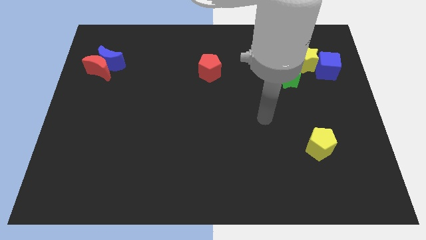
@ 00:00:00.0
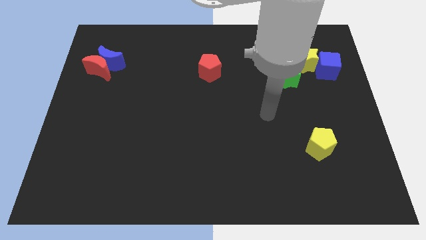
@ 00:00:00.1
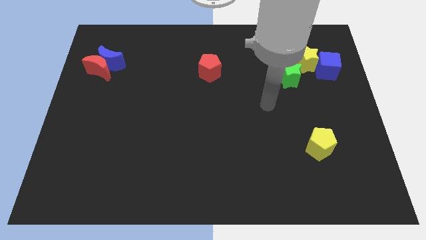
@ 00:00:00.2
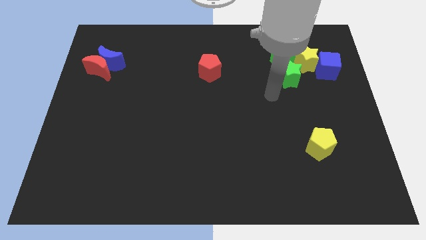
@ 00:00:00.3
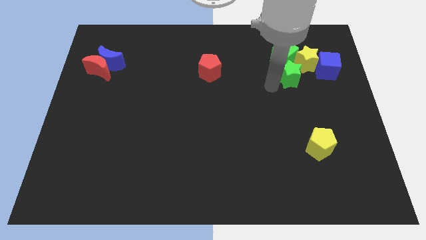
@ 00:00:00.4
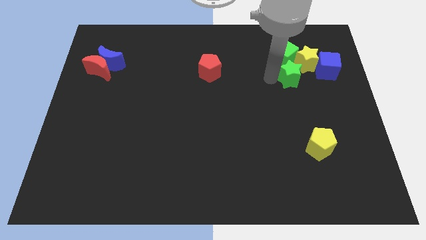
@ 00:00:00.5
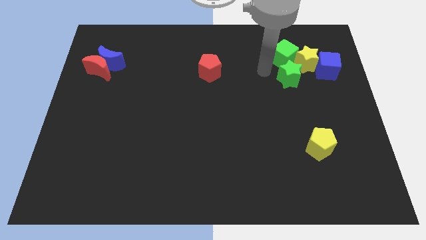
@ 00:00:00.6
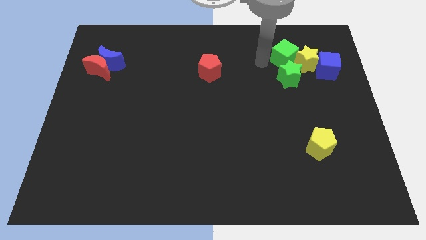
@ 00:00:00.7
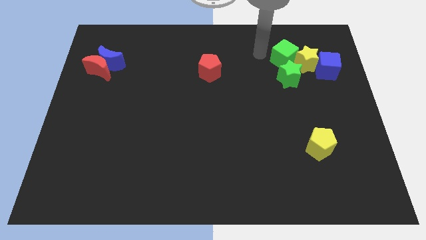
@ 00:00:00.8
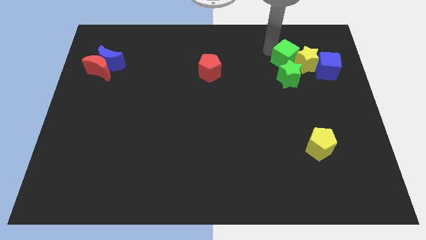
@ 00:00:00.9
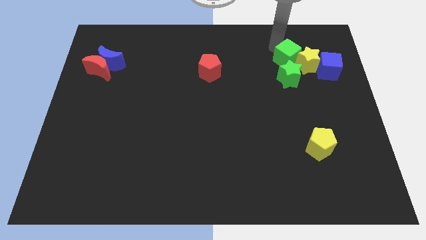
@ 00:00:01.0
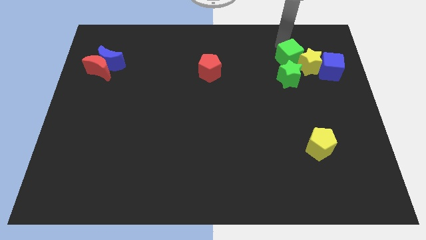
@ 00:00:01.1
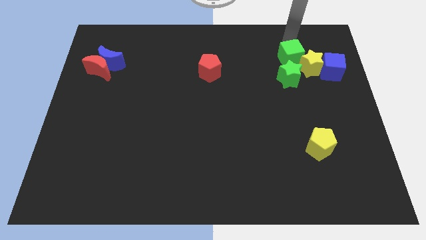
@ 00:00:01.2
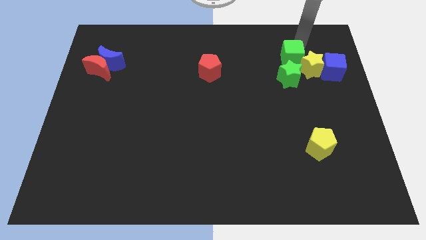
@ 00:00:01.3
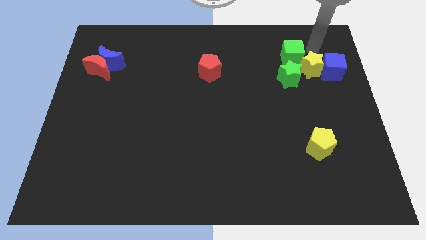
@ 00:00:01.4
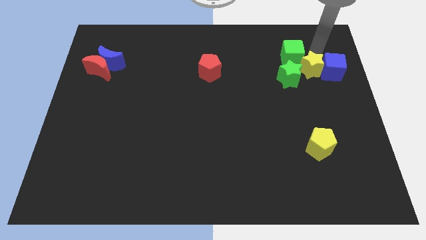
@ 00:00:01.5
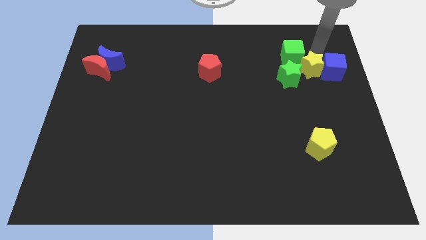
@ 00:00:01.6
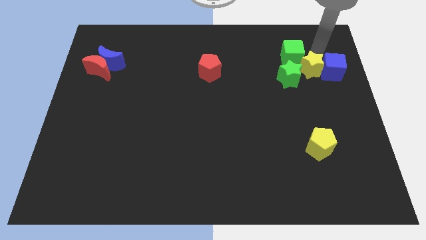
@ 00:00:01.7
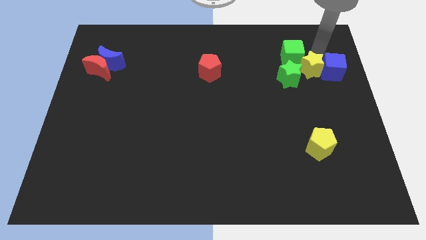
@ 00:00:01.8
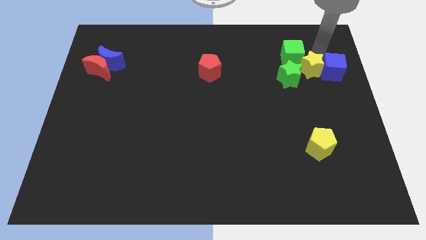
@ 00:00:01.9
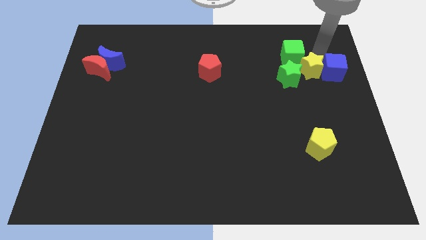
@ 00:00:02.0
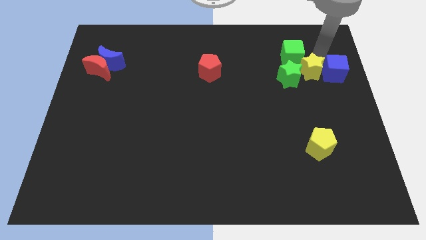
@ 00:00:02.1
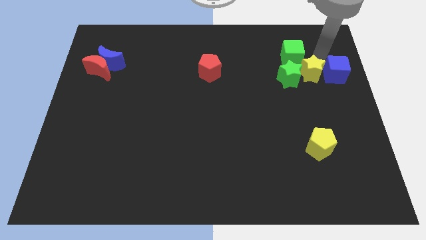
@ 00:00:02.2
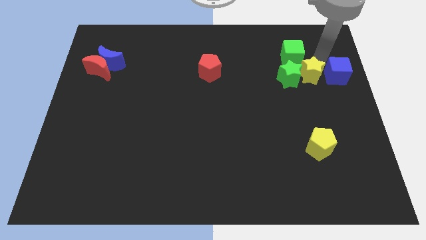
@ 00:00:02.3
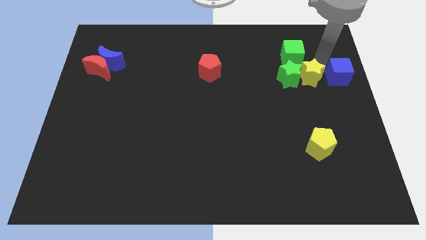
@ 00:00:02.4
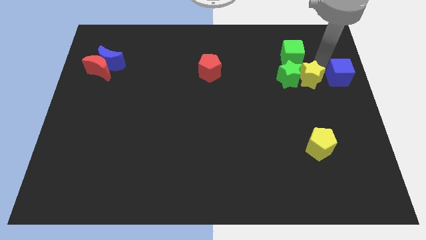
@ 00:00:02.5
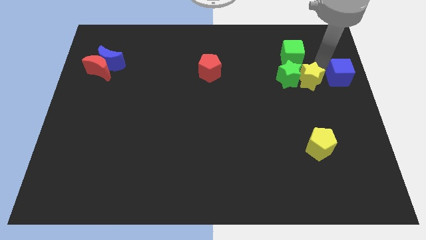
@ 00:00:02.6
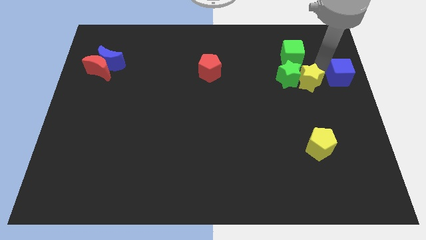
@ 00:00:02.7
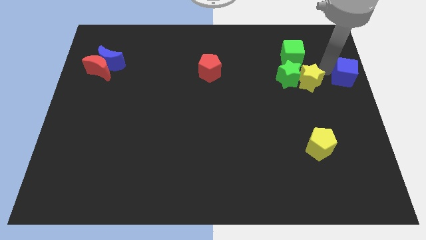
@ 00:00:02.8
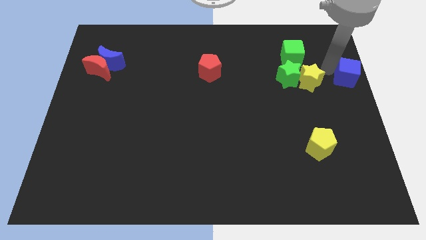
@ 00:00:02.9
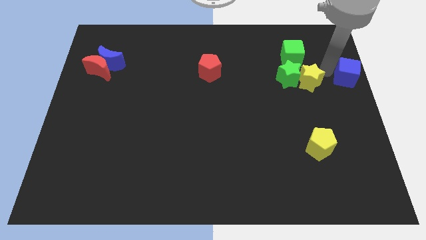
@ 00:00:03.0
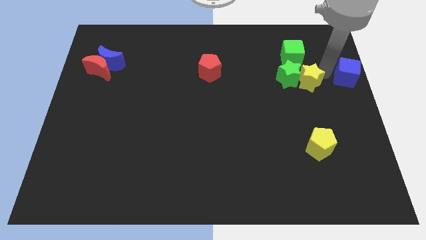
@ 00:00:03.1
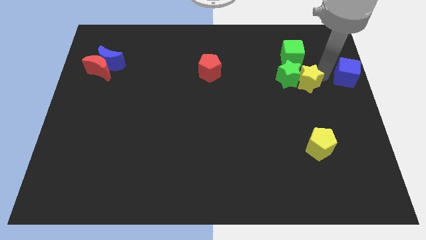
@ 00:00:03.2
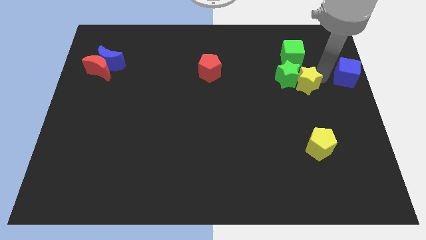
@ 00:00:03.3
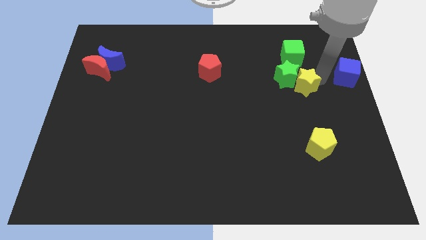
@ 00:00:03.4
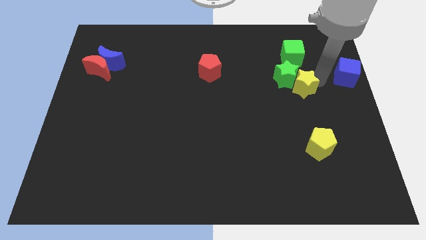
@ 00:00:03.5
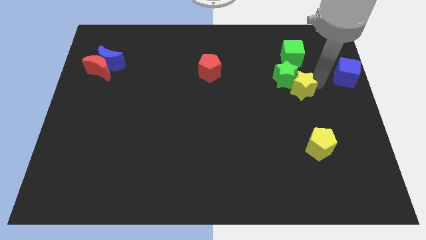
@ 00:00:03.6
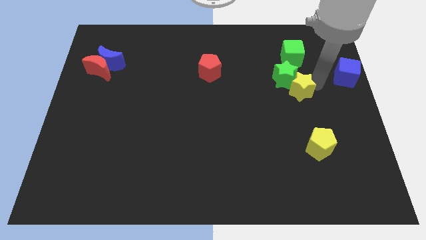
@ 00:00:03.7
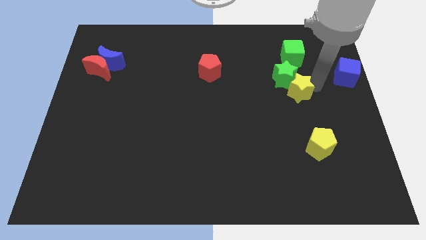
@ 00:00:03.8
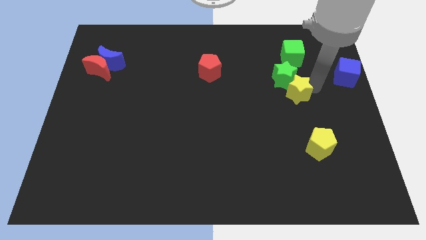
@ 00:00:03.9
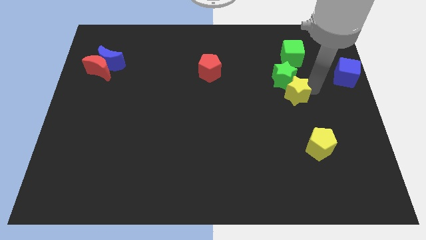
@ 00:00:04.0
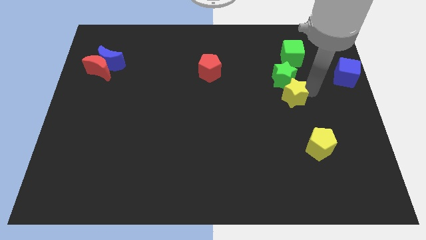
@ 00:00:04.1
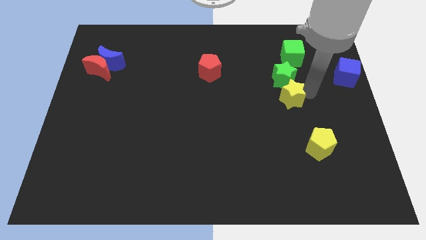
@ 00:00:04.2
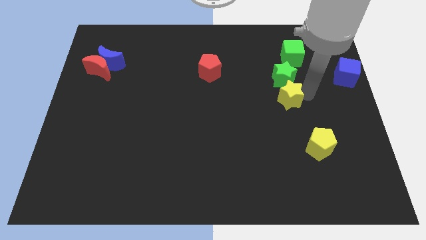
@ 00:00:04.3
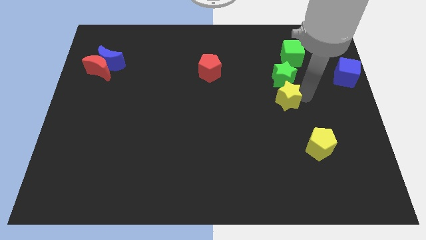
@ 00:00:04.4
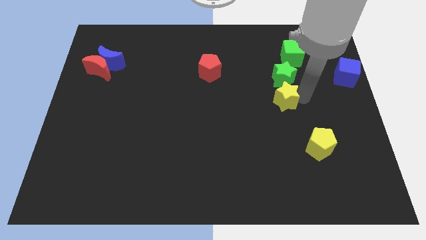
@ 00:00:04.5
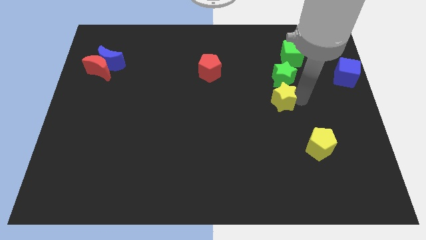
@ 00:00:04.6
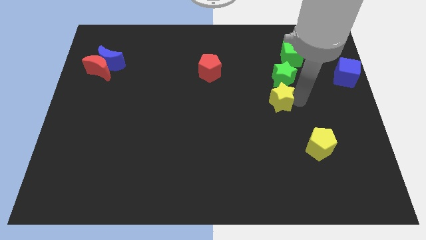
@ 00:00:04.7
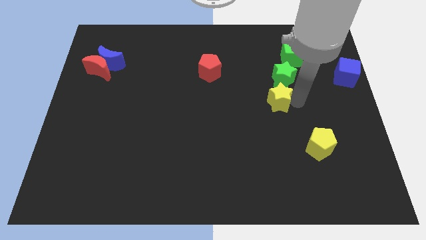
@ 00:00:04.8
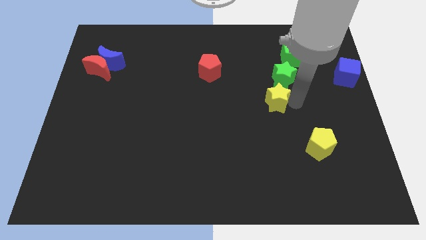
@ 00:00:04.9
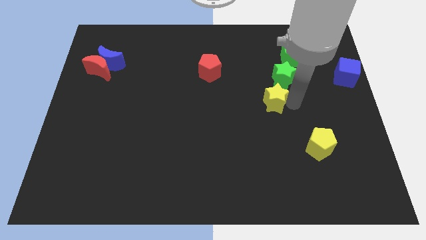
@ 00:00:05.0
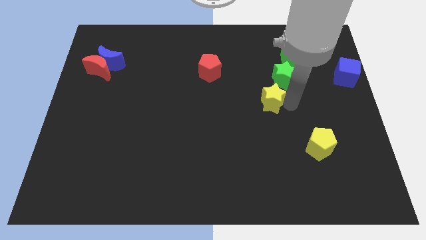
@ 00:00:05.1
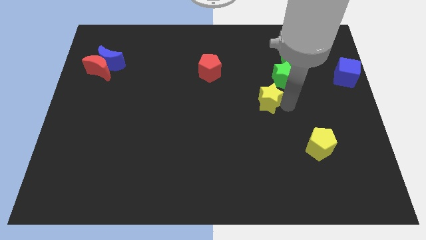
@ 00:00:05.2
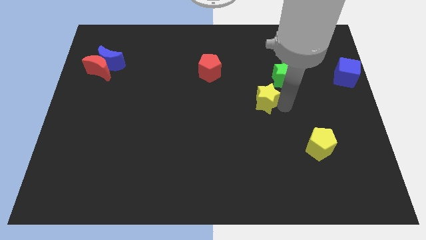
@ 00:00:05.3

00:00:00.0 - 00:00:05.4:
move the yellow star to the center
